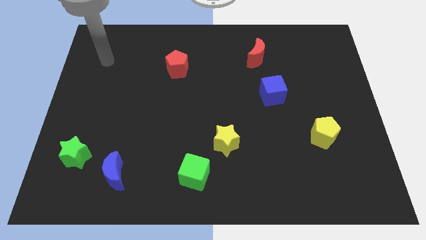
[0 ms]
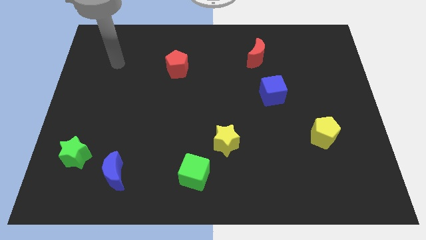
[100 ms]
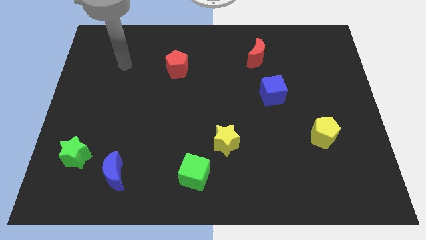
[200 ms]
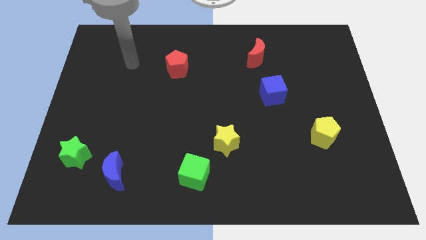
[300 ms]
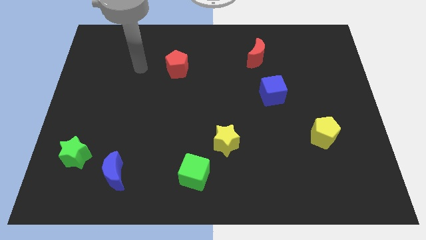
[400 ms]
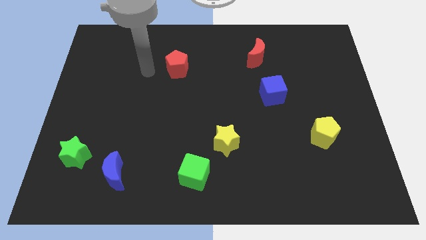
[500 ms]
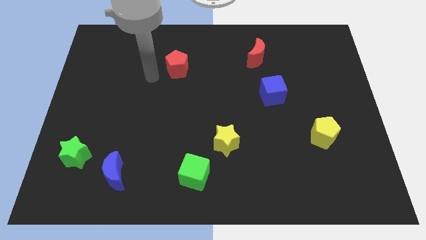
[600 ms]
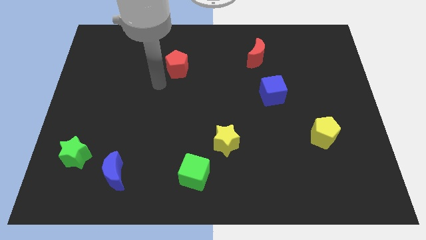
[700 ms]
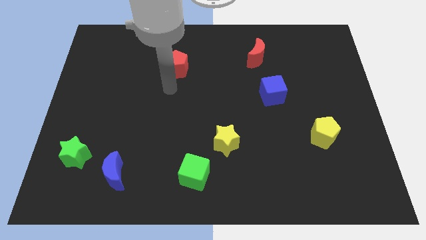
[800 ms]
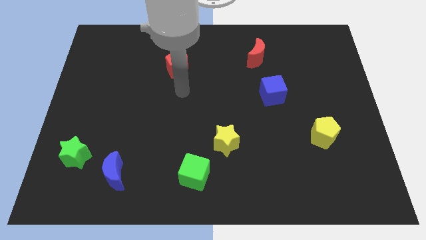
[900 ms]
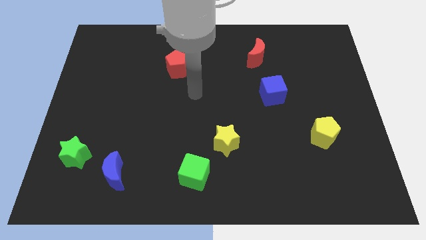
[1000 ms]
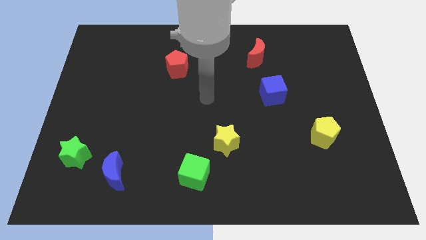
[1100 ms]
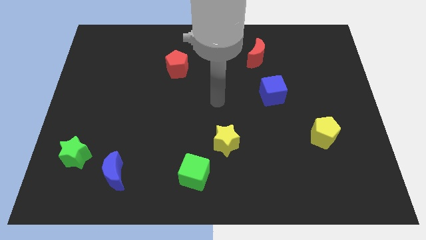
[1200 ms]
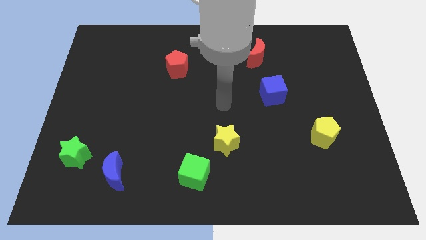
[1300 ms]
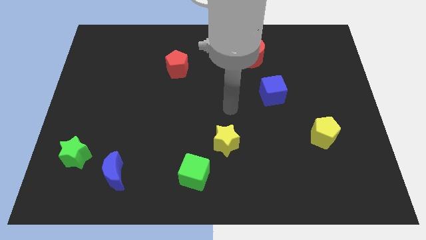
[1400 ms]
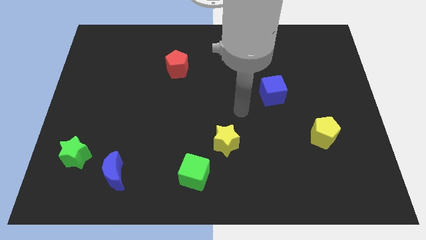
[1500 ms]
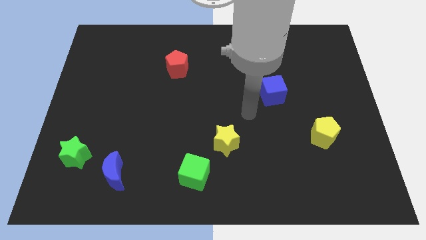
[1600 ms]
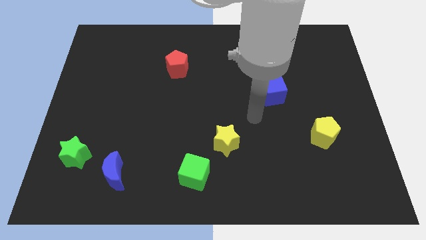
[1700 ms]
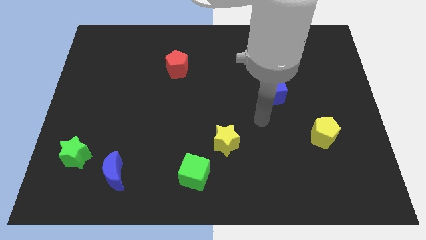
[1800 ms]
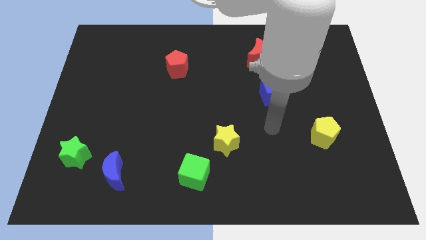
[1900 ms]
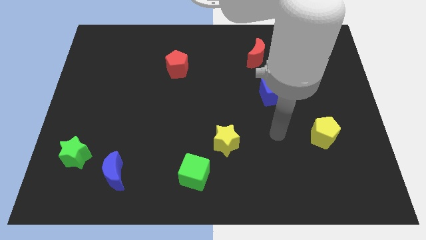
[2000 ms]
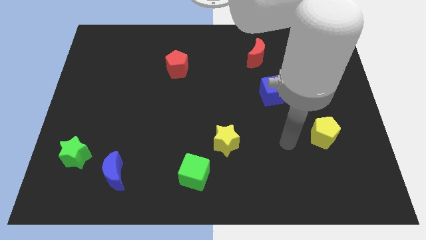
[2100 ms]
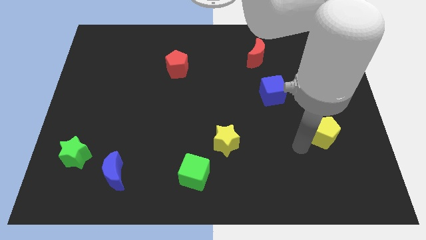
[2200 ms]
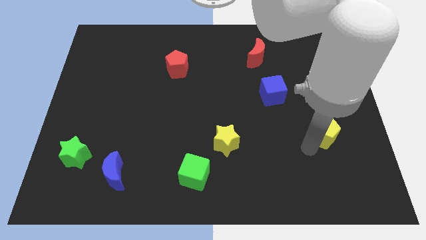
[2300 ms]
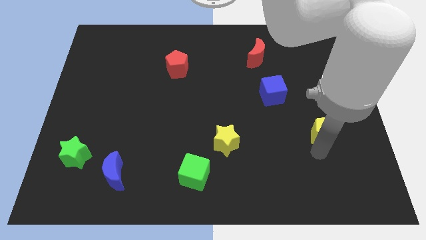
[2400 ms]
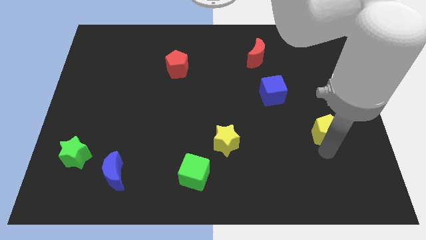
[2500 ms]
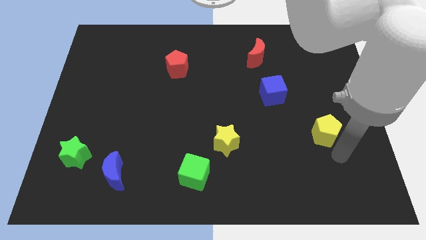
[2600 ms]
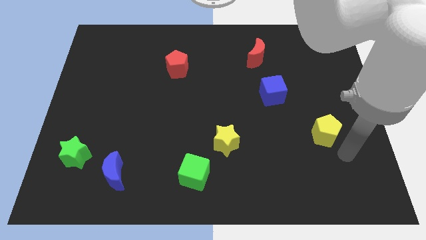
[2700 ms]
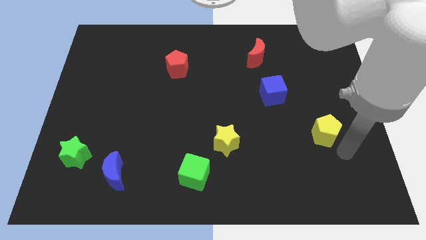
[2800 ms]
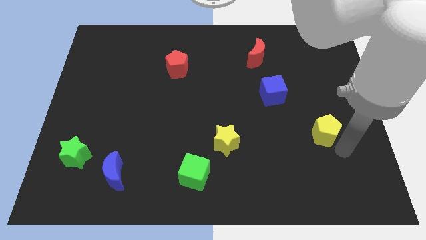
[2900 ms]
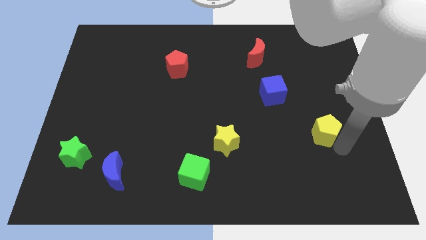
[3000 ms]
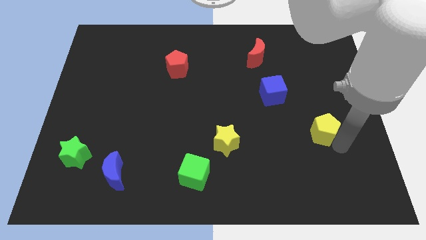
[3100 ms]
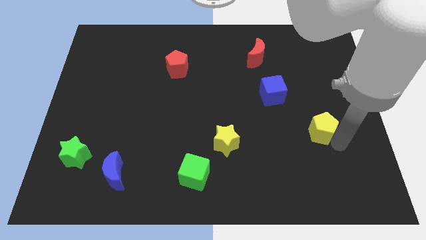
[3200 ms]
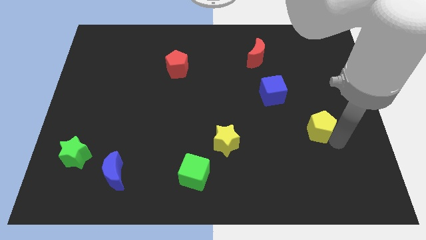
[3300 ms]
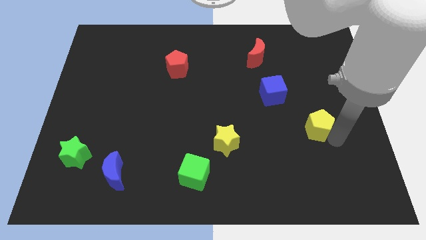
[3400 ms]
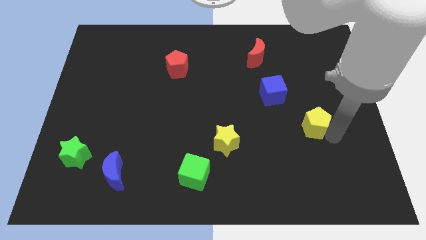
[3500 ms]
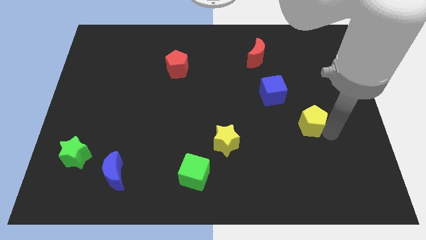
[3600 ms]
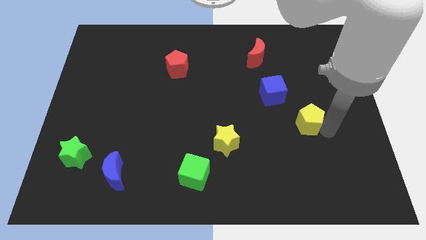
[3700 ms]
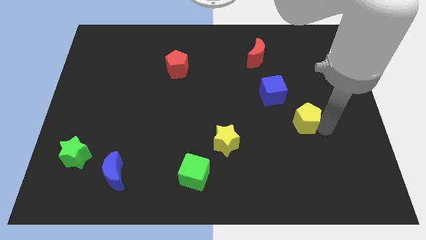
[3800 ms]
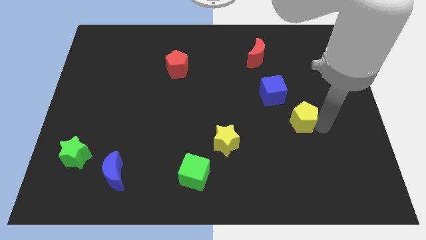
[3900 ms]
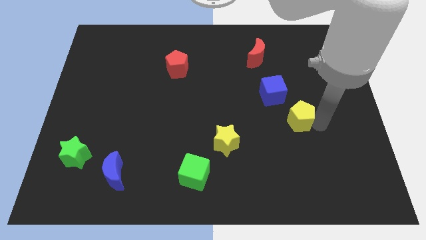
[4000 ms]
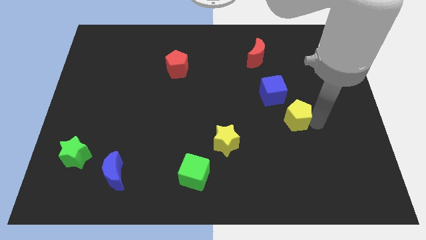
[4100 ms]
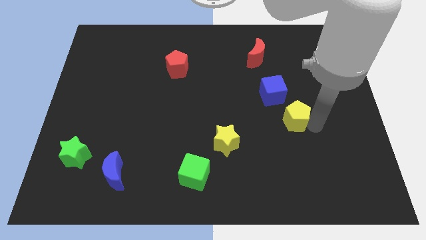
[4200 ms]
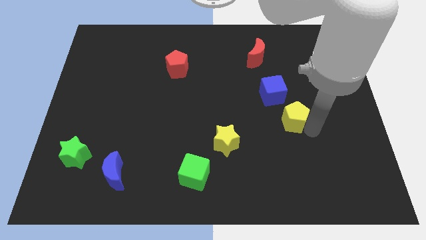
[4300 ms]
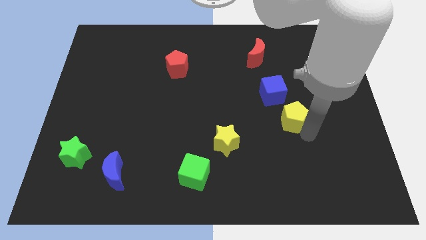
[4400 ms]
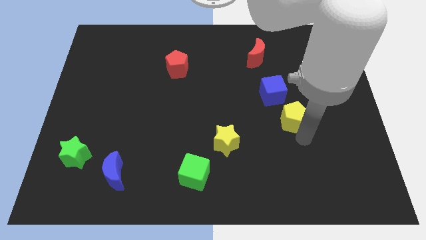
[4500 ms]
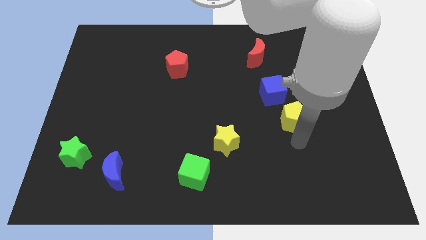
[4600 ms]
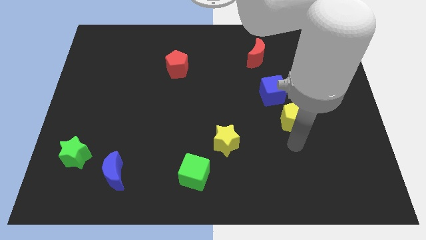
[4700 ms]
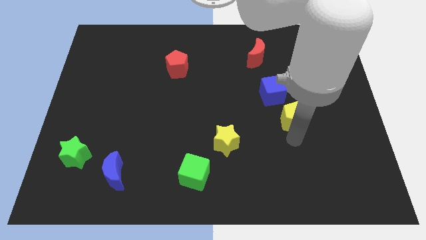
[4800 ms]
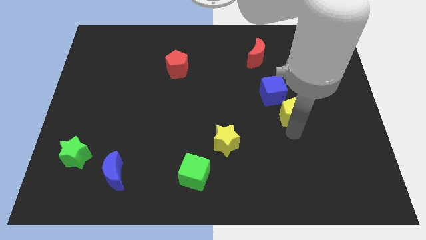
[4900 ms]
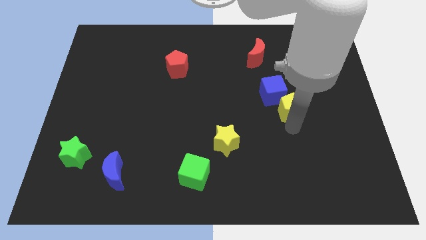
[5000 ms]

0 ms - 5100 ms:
put the yellow pentagon to the blue cube

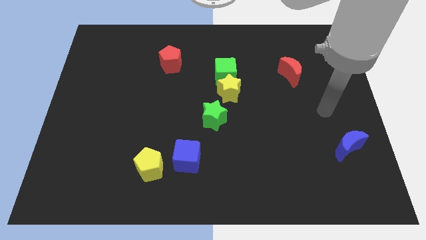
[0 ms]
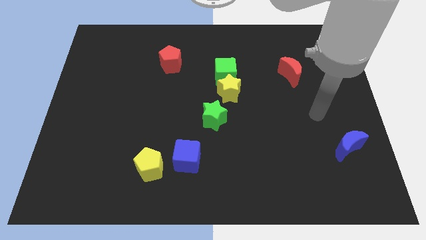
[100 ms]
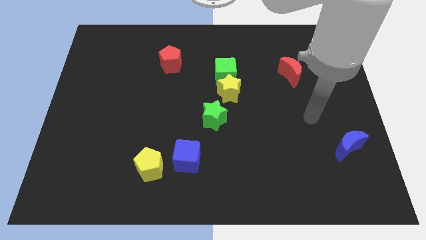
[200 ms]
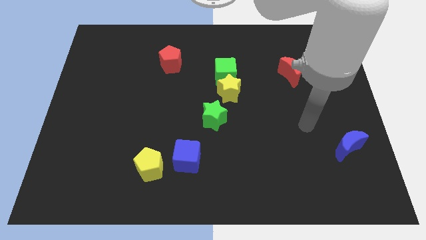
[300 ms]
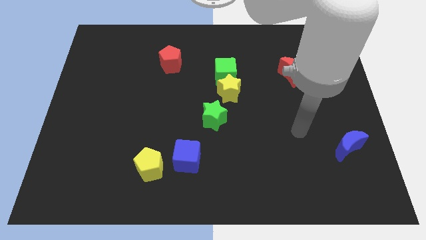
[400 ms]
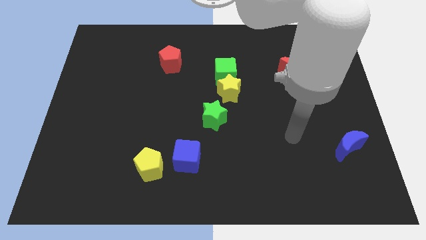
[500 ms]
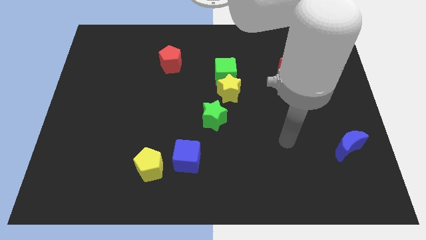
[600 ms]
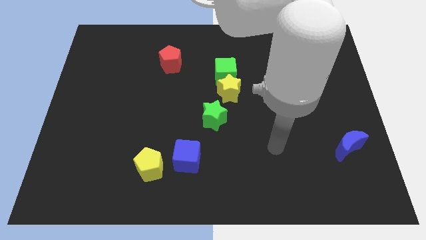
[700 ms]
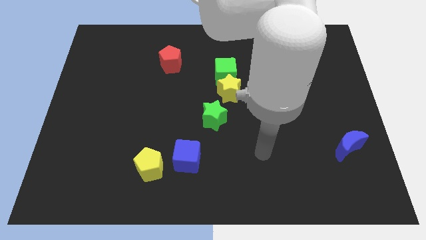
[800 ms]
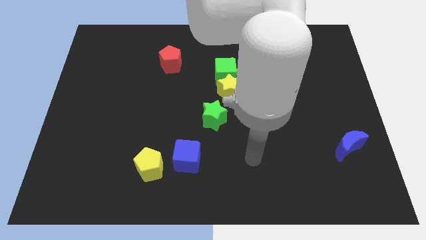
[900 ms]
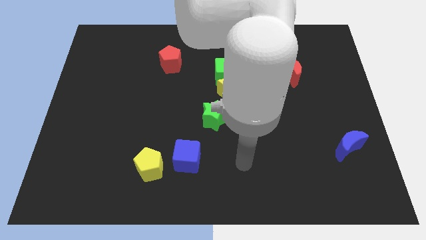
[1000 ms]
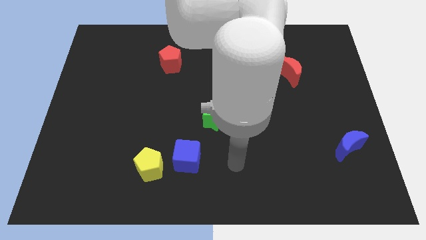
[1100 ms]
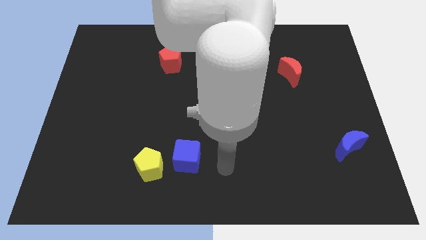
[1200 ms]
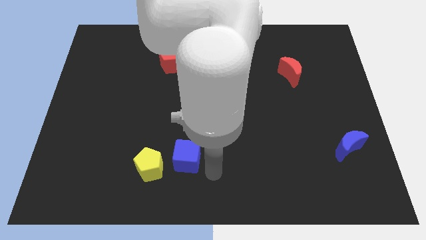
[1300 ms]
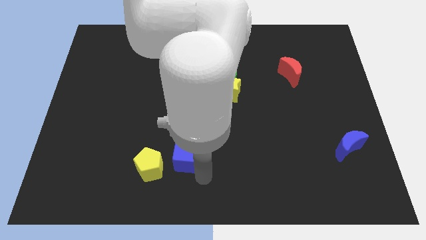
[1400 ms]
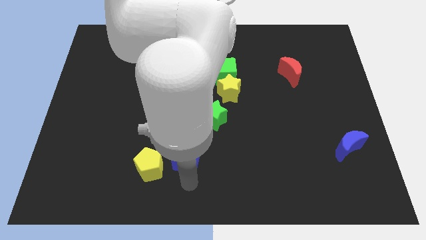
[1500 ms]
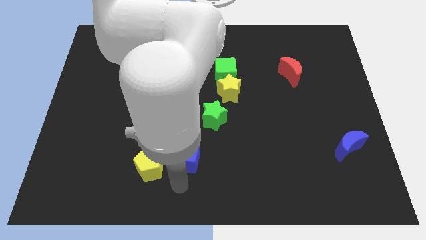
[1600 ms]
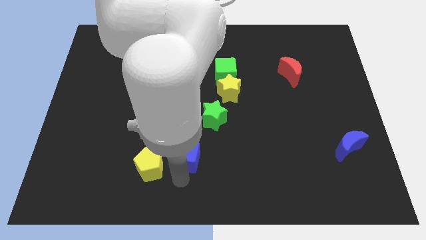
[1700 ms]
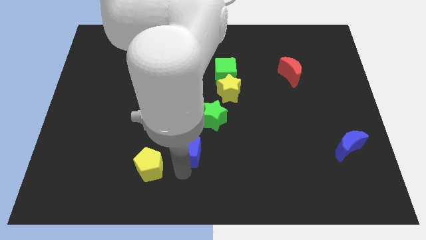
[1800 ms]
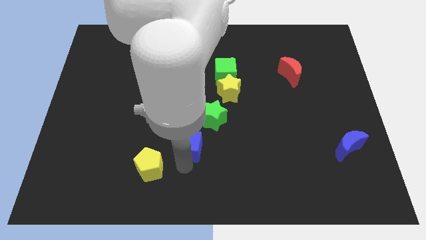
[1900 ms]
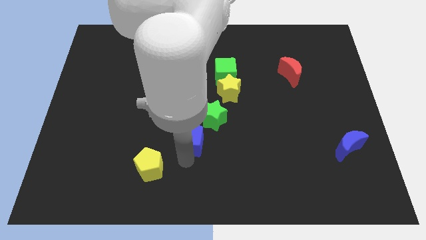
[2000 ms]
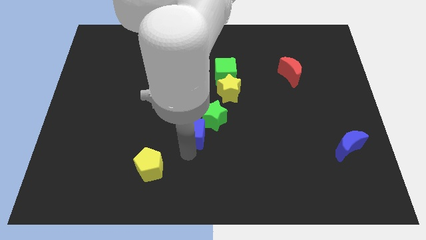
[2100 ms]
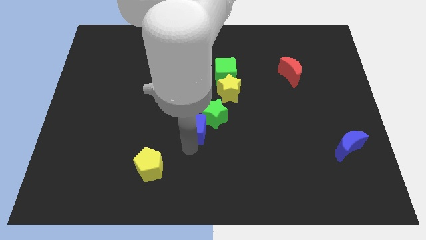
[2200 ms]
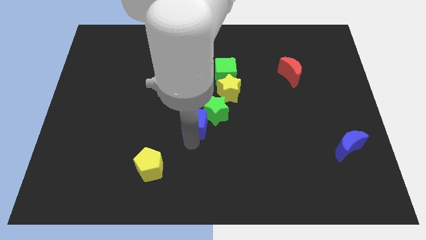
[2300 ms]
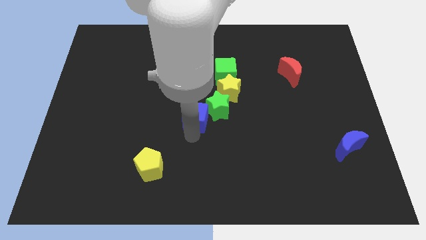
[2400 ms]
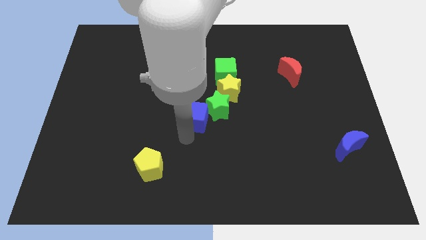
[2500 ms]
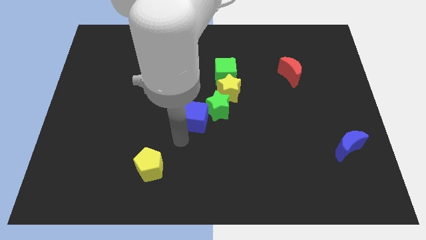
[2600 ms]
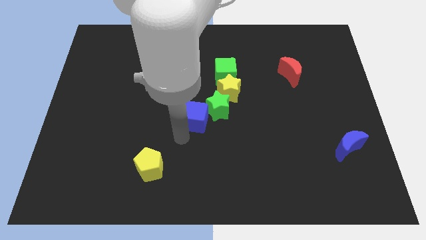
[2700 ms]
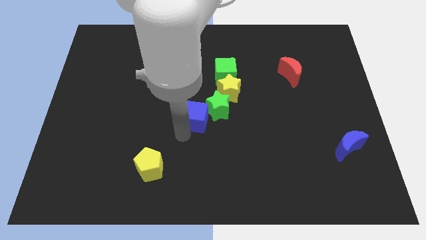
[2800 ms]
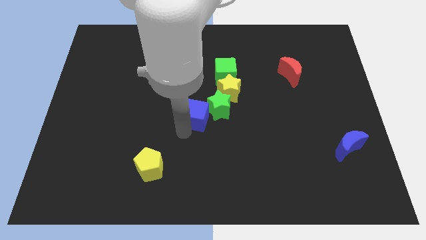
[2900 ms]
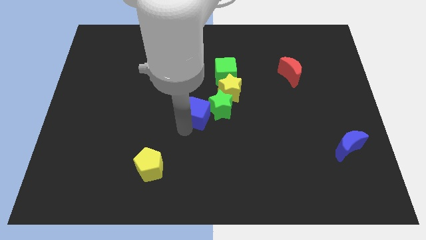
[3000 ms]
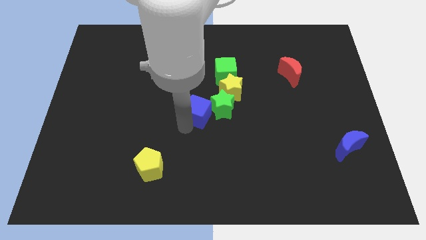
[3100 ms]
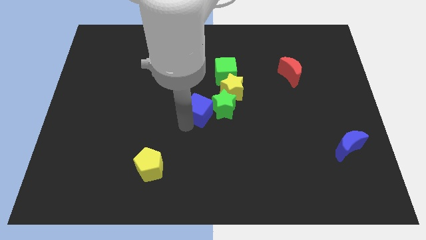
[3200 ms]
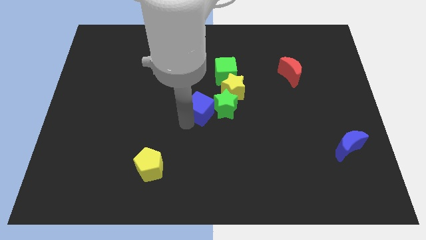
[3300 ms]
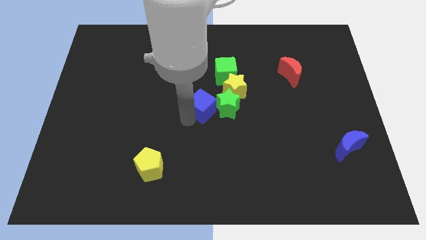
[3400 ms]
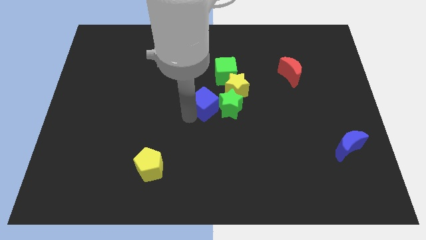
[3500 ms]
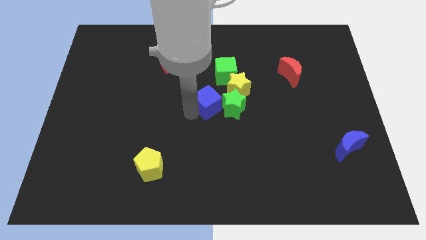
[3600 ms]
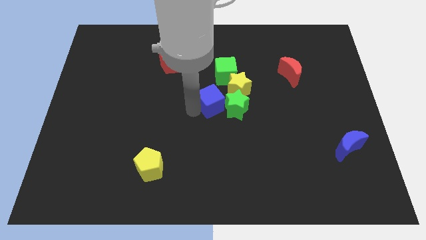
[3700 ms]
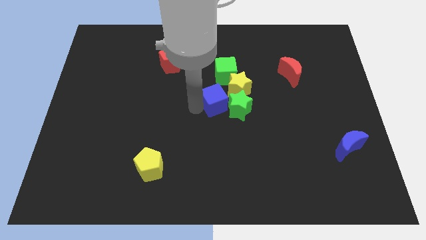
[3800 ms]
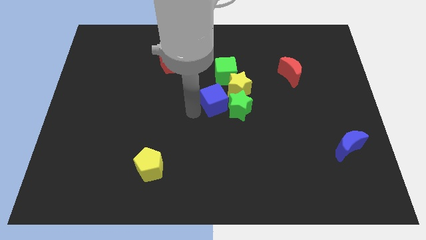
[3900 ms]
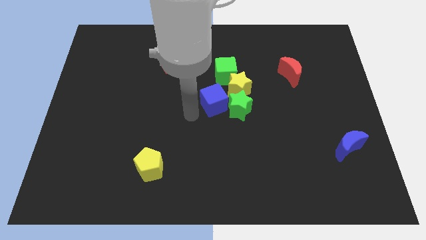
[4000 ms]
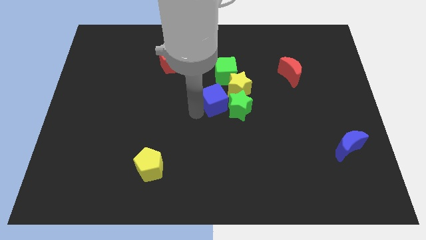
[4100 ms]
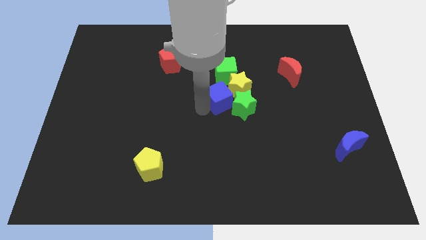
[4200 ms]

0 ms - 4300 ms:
push the blue cube close to the yellow star
